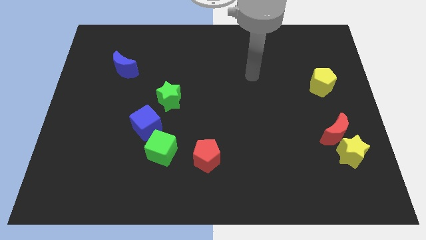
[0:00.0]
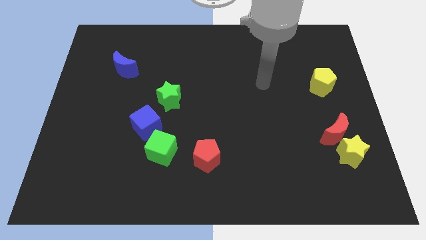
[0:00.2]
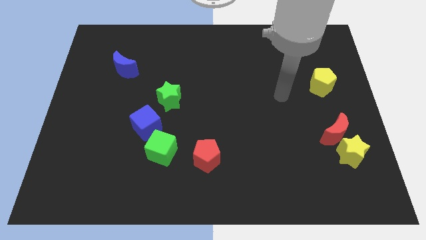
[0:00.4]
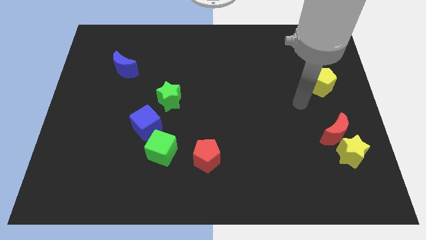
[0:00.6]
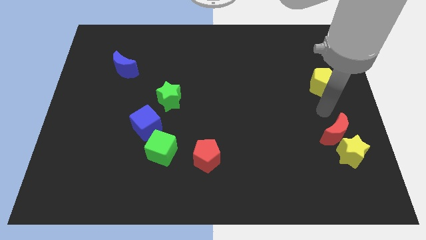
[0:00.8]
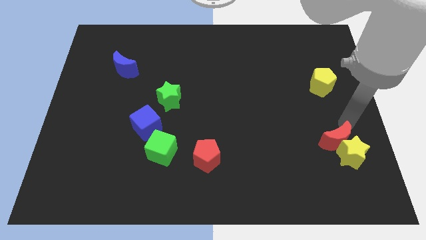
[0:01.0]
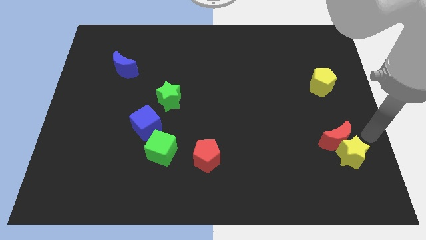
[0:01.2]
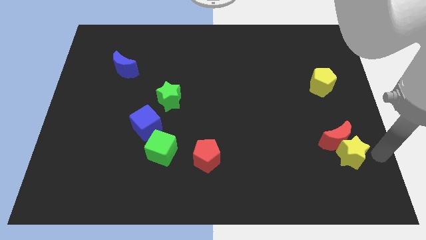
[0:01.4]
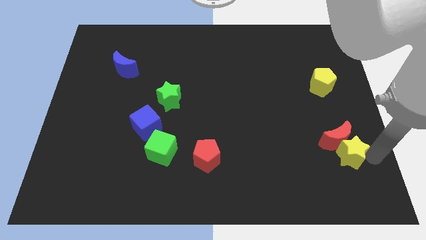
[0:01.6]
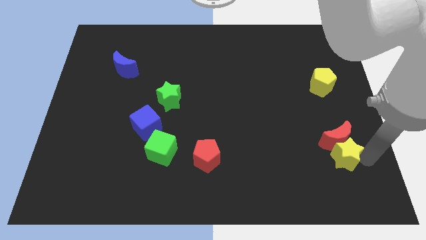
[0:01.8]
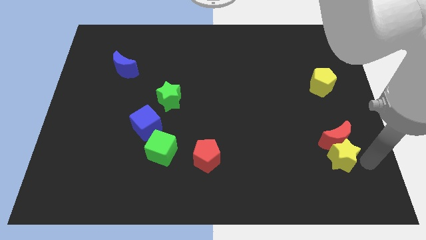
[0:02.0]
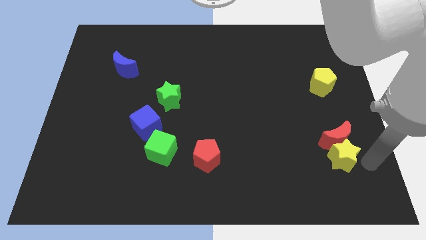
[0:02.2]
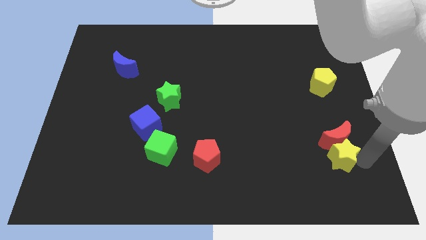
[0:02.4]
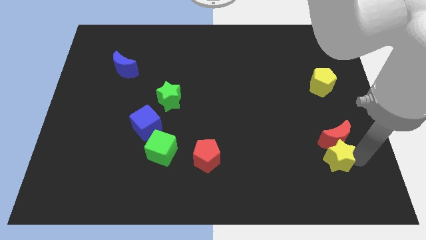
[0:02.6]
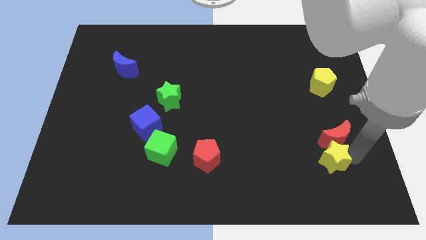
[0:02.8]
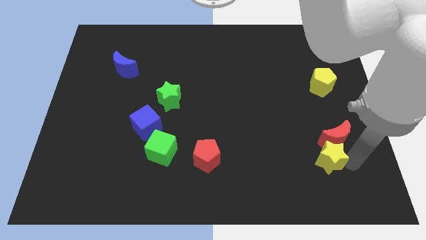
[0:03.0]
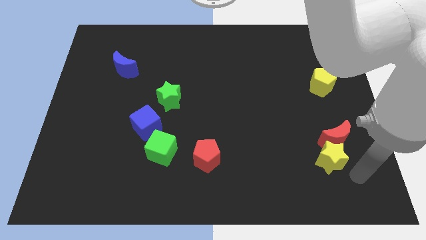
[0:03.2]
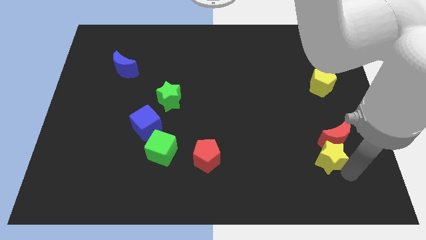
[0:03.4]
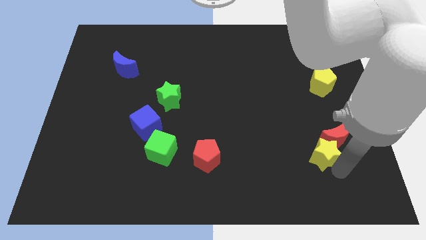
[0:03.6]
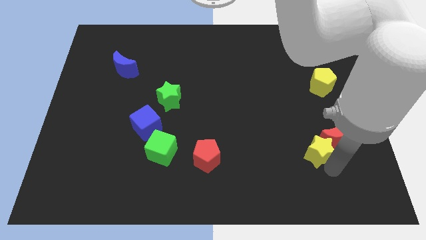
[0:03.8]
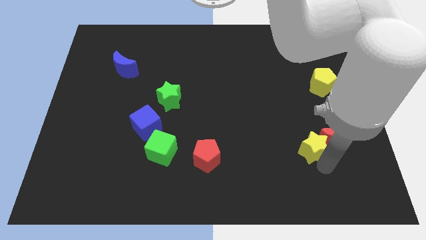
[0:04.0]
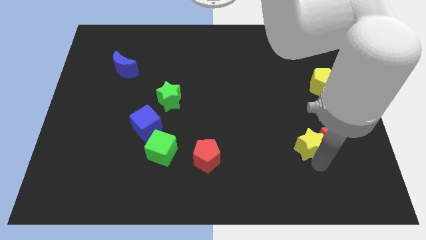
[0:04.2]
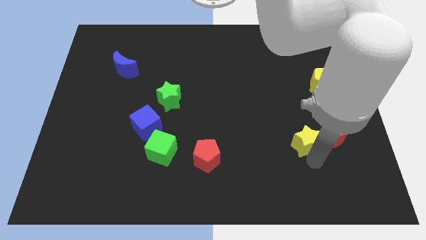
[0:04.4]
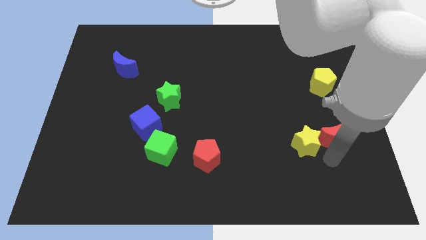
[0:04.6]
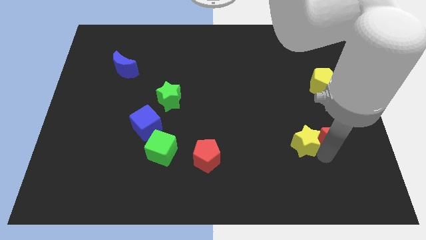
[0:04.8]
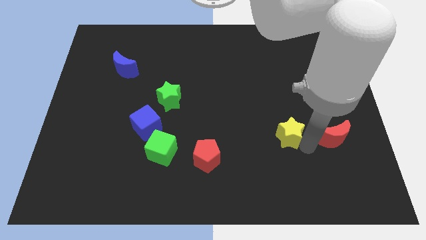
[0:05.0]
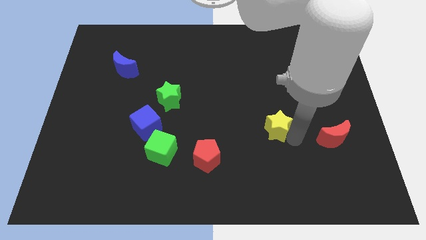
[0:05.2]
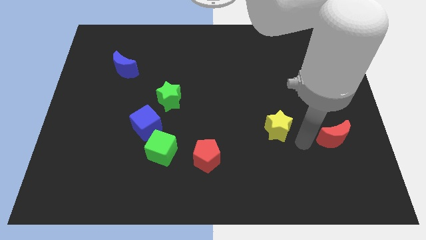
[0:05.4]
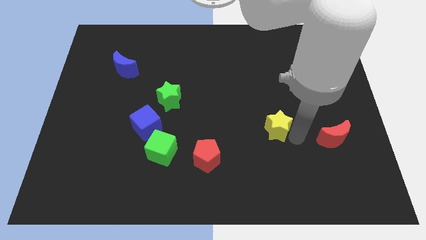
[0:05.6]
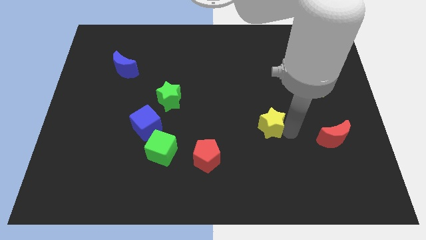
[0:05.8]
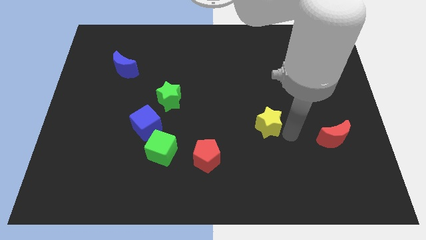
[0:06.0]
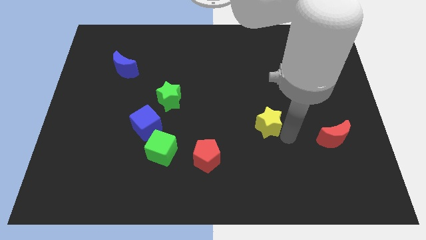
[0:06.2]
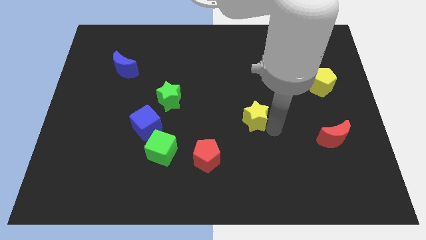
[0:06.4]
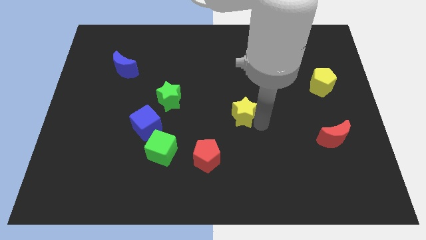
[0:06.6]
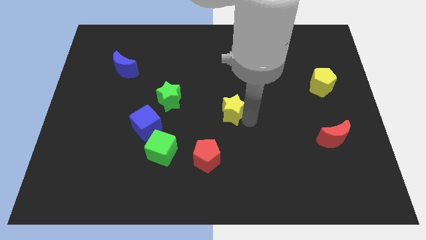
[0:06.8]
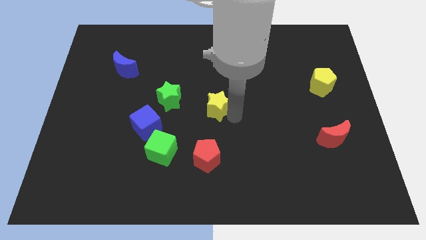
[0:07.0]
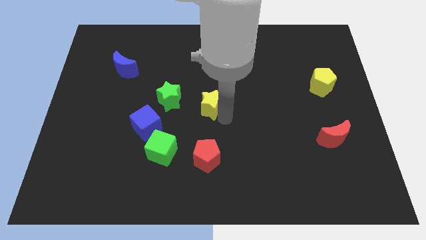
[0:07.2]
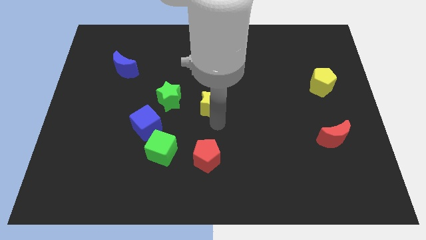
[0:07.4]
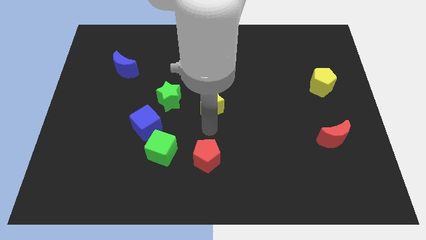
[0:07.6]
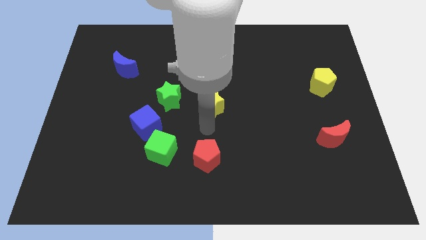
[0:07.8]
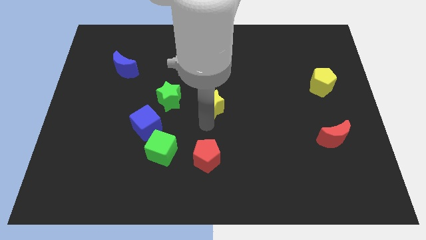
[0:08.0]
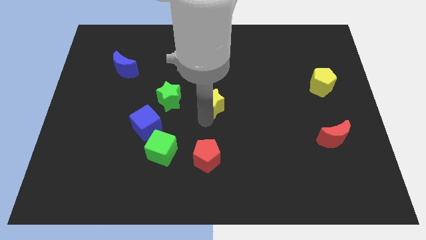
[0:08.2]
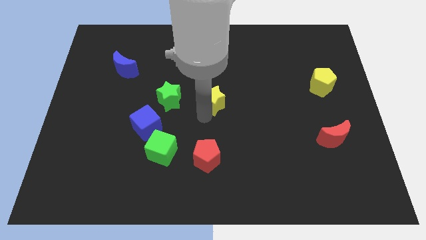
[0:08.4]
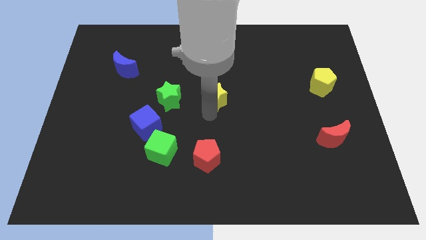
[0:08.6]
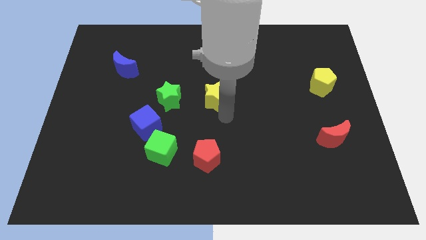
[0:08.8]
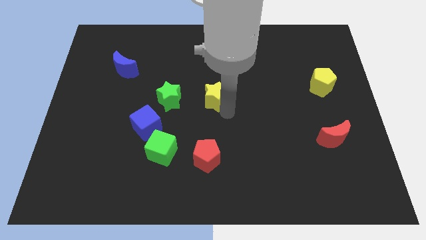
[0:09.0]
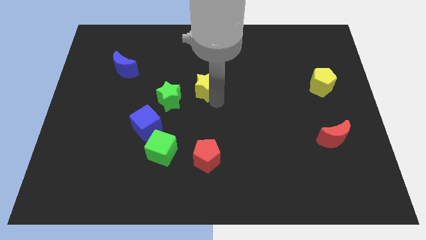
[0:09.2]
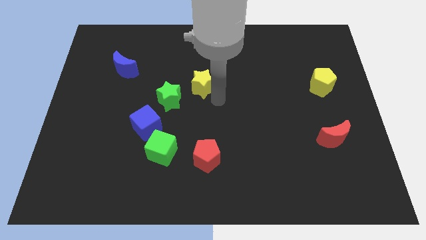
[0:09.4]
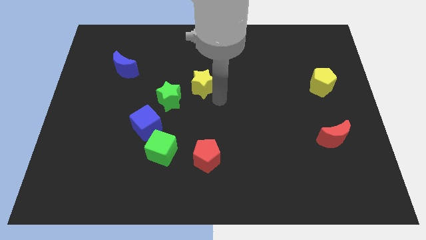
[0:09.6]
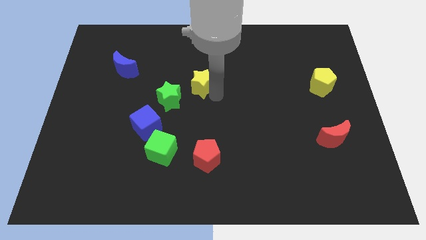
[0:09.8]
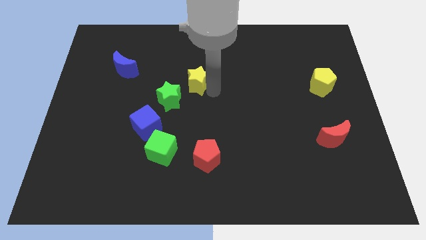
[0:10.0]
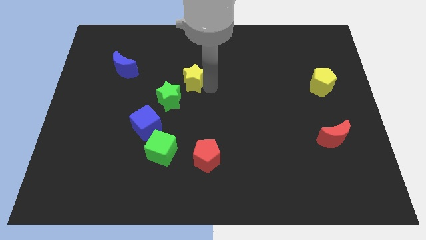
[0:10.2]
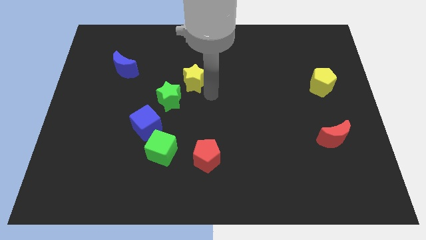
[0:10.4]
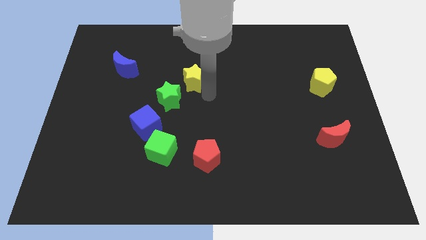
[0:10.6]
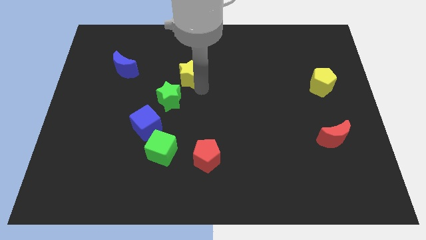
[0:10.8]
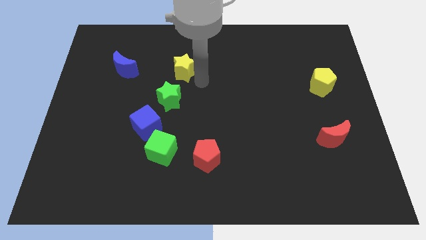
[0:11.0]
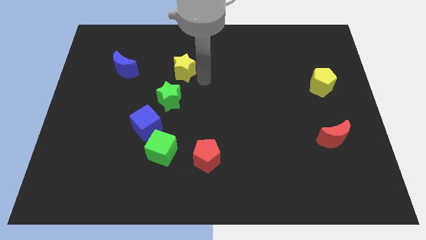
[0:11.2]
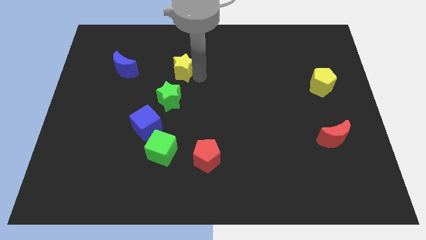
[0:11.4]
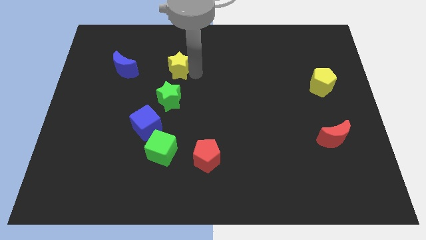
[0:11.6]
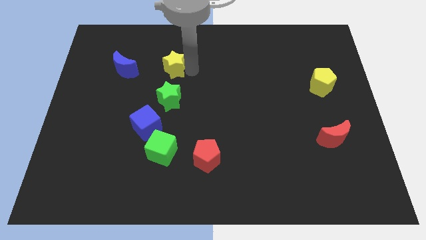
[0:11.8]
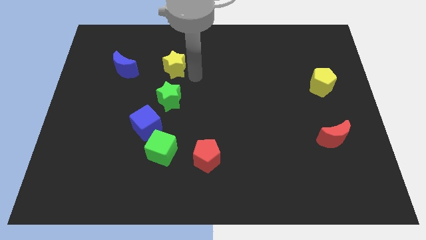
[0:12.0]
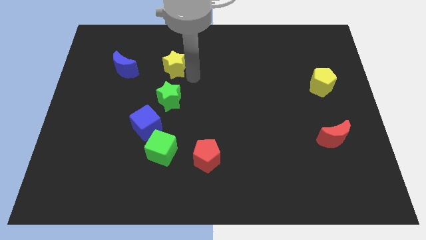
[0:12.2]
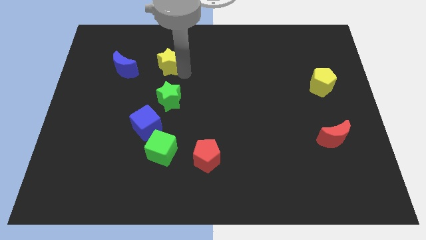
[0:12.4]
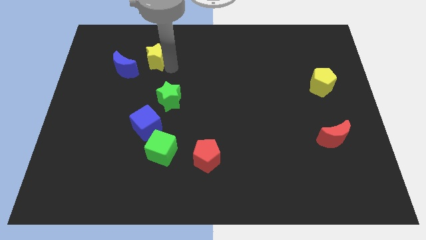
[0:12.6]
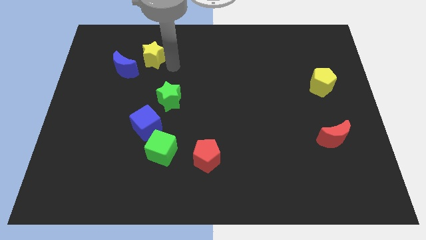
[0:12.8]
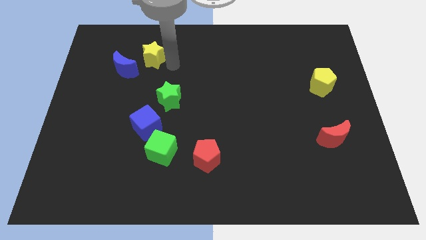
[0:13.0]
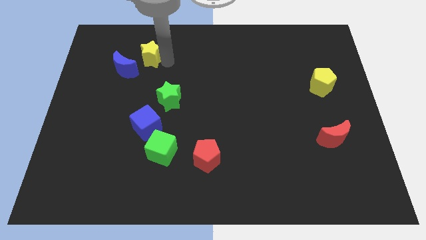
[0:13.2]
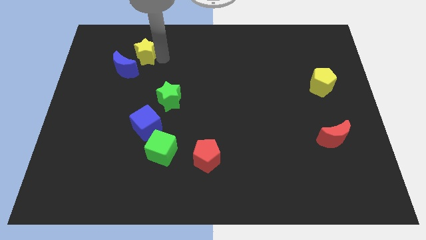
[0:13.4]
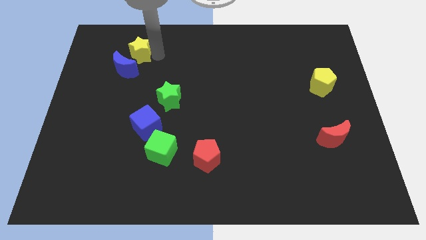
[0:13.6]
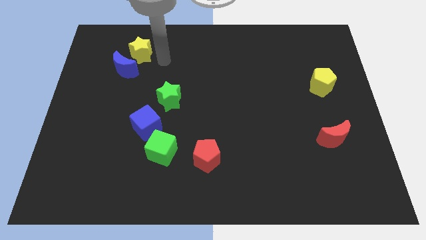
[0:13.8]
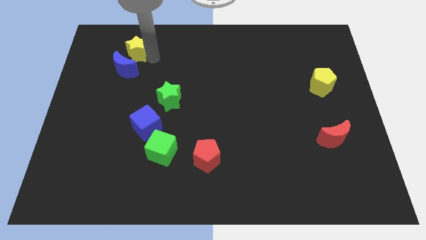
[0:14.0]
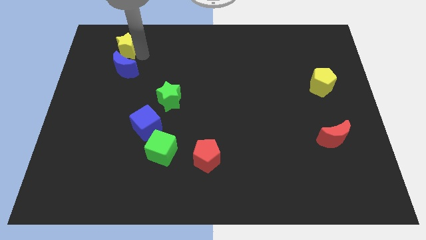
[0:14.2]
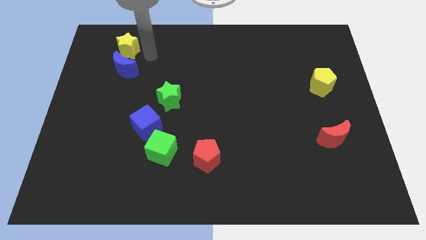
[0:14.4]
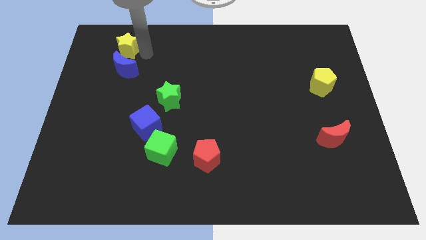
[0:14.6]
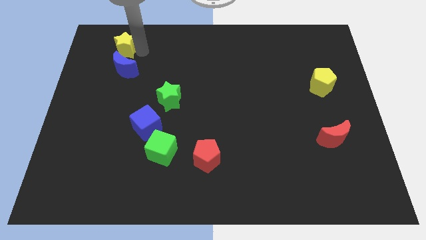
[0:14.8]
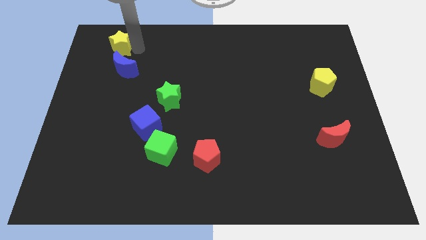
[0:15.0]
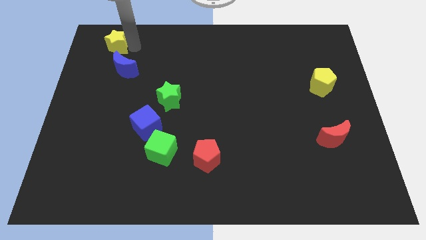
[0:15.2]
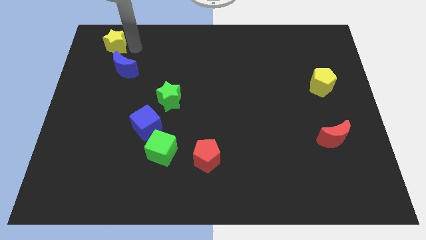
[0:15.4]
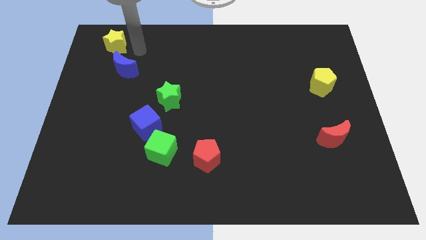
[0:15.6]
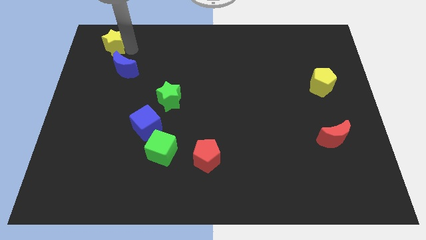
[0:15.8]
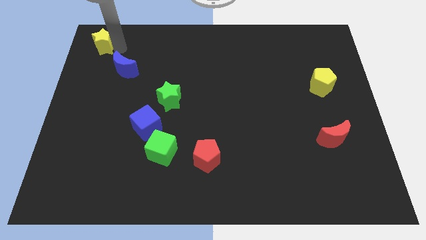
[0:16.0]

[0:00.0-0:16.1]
slide the yellow star to the top left of the board
